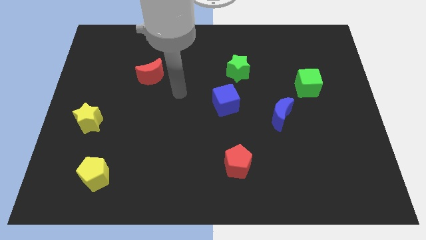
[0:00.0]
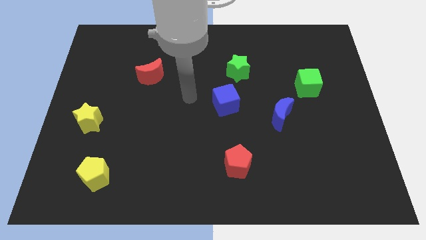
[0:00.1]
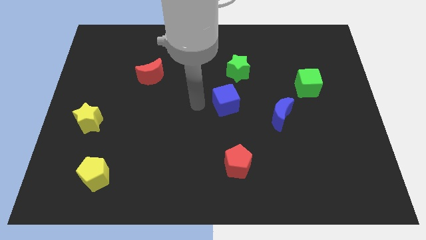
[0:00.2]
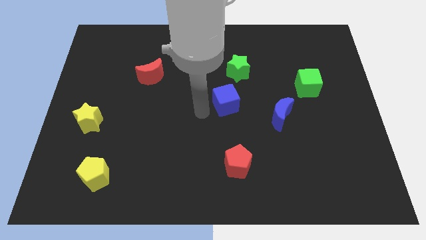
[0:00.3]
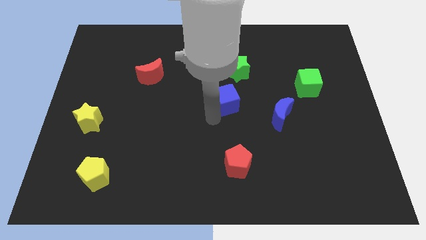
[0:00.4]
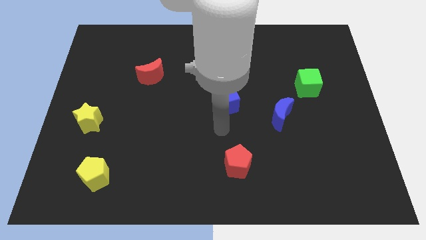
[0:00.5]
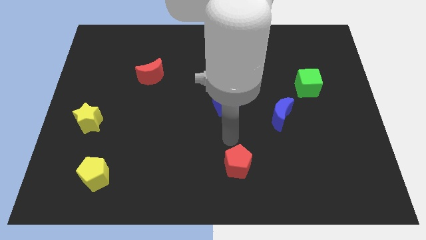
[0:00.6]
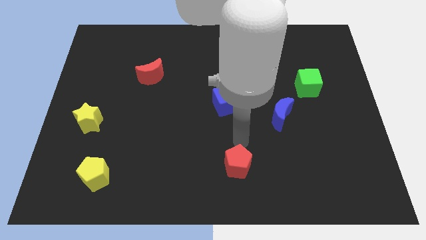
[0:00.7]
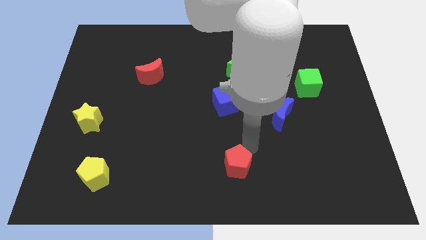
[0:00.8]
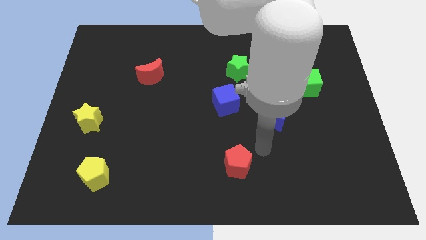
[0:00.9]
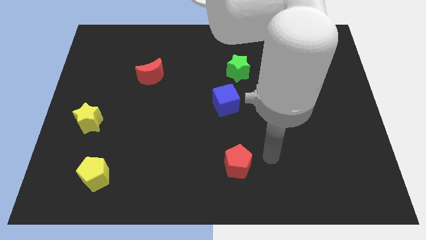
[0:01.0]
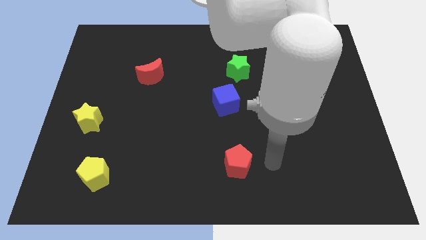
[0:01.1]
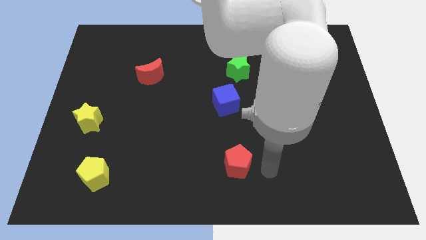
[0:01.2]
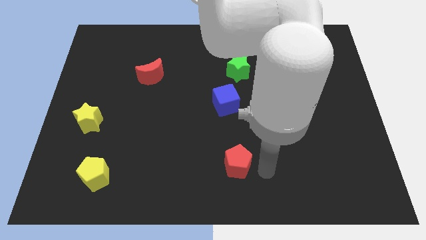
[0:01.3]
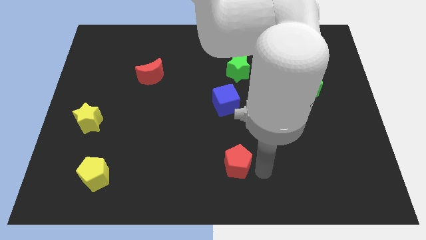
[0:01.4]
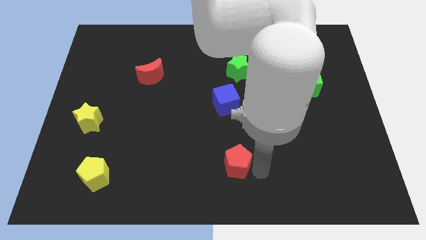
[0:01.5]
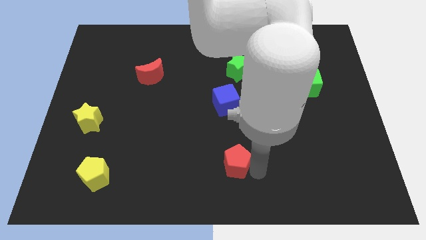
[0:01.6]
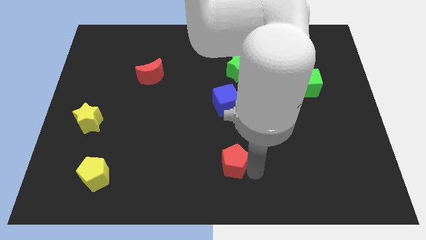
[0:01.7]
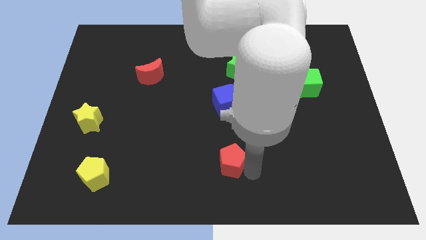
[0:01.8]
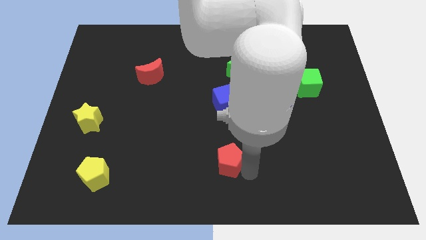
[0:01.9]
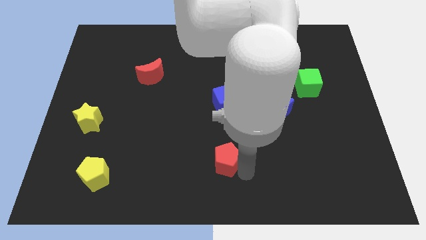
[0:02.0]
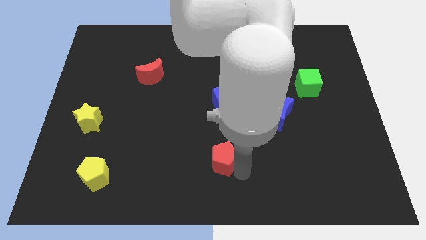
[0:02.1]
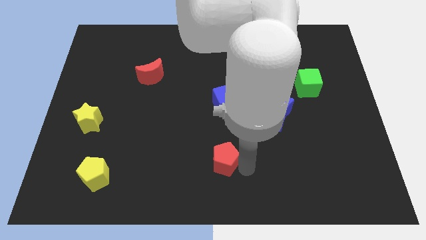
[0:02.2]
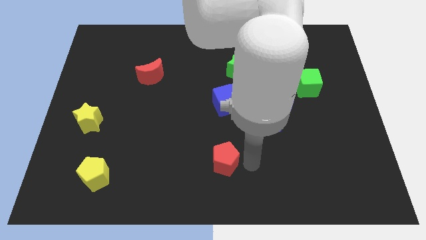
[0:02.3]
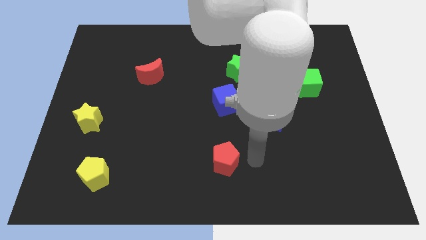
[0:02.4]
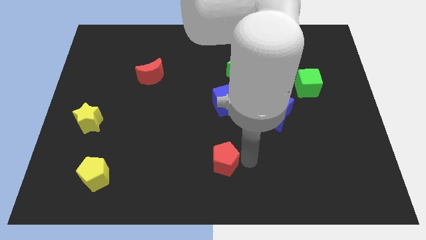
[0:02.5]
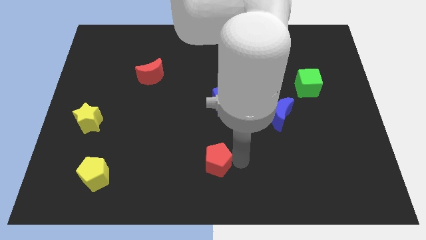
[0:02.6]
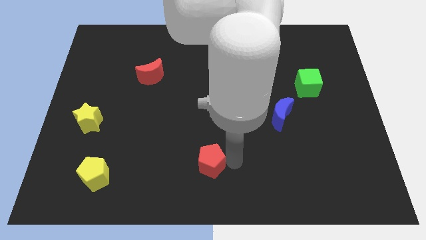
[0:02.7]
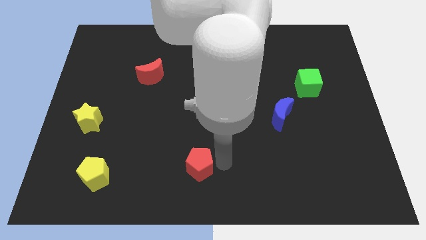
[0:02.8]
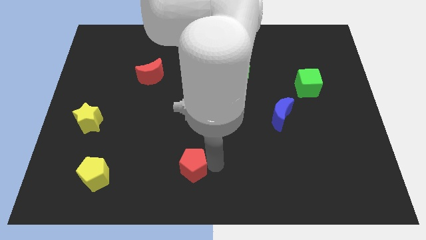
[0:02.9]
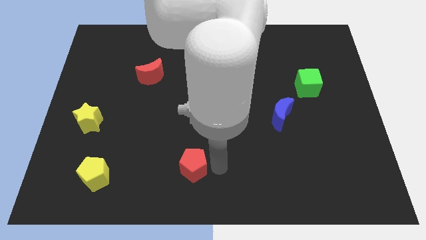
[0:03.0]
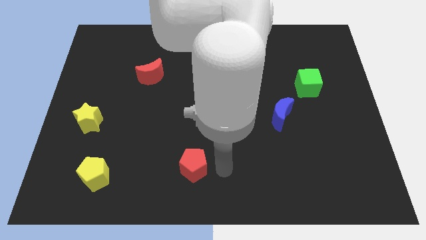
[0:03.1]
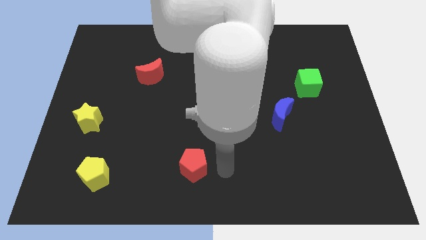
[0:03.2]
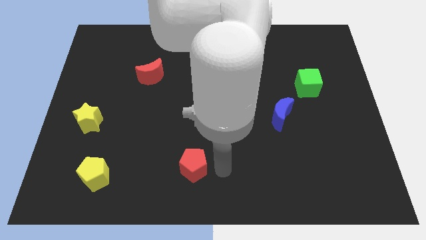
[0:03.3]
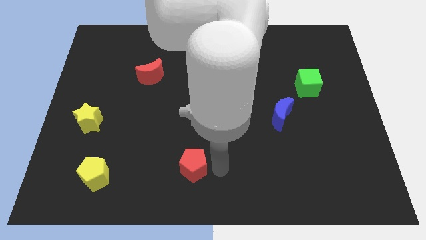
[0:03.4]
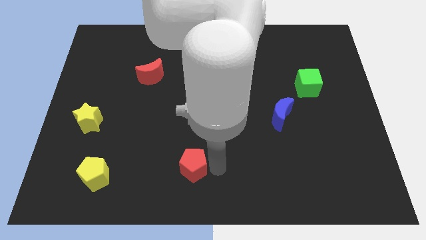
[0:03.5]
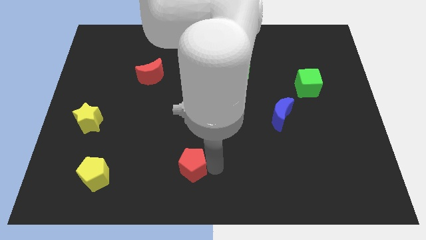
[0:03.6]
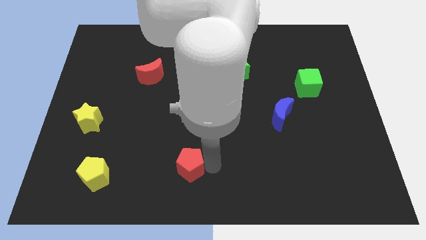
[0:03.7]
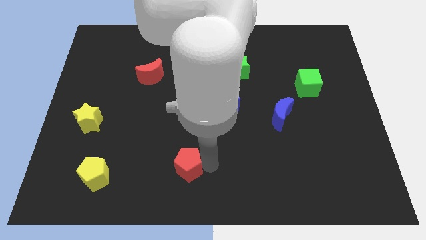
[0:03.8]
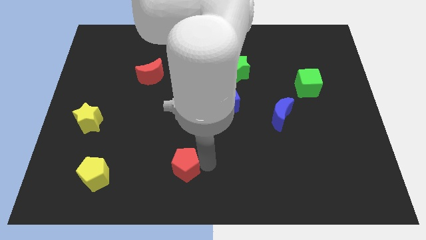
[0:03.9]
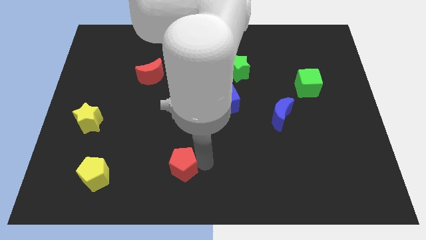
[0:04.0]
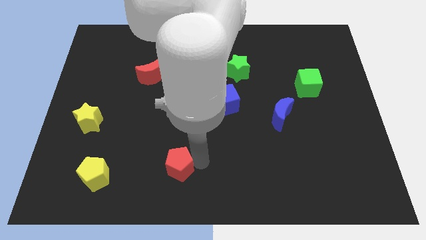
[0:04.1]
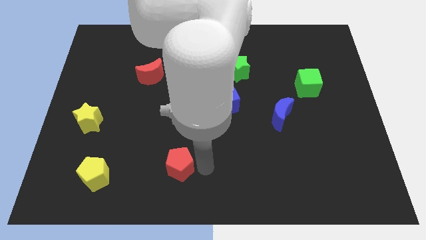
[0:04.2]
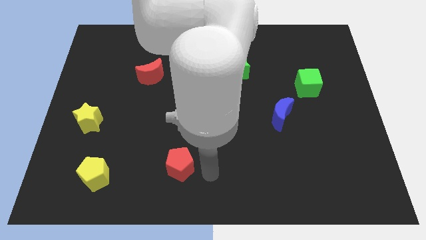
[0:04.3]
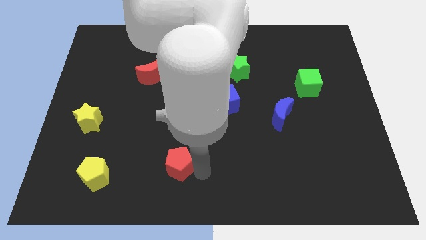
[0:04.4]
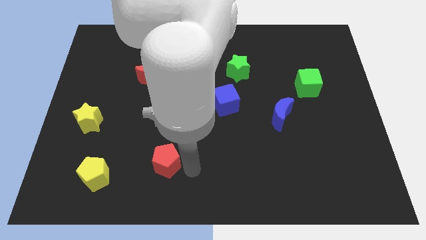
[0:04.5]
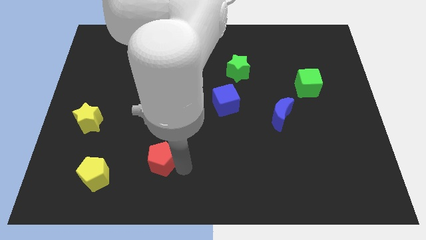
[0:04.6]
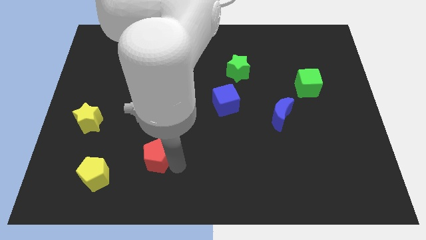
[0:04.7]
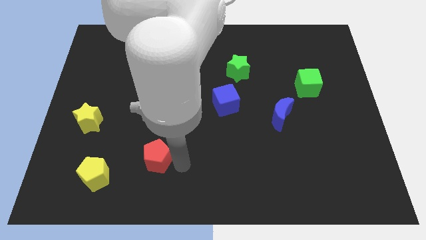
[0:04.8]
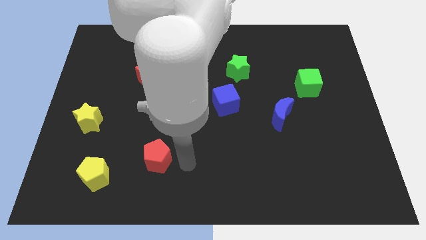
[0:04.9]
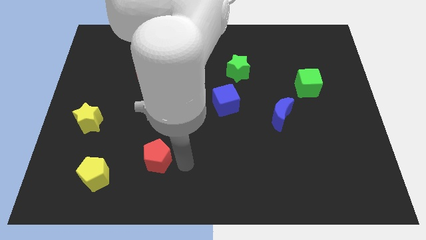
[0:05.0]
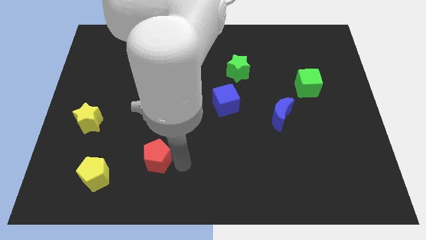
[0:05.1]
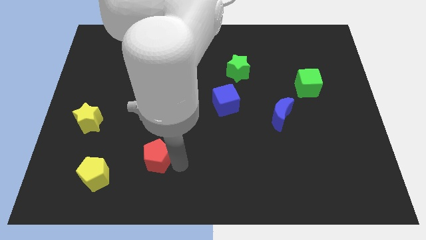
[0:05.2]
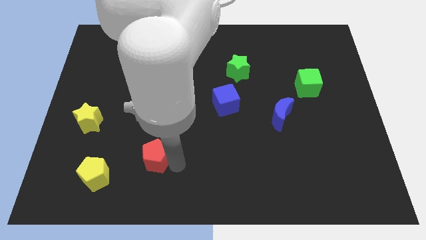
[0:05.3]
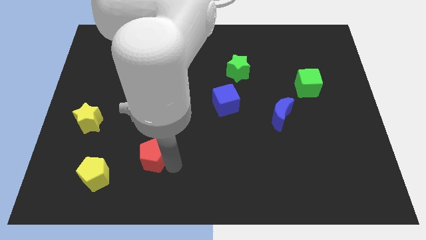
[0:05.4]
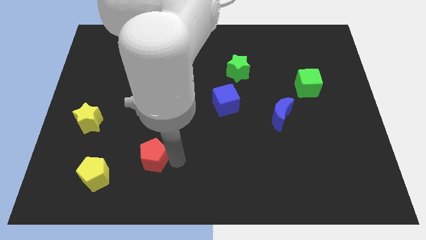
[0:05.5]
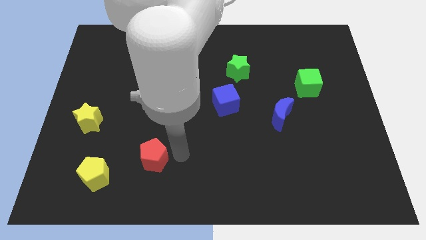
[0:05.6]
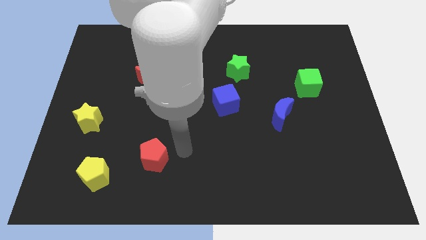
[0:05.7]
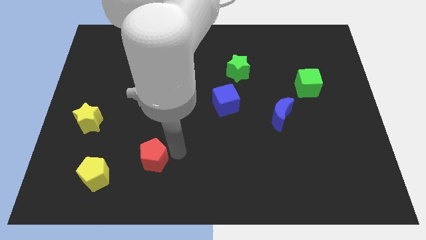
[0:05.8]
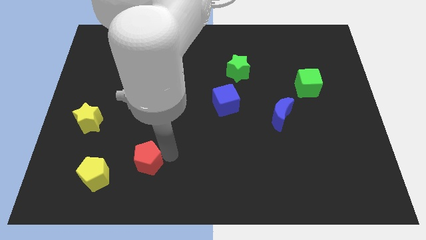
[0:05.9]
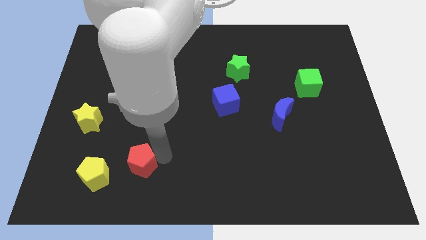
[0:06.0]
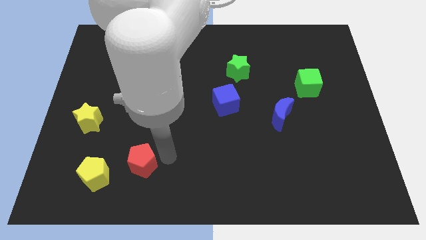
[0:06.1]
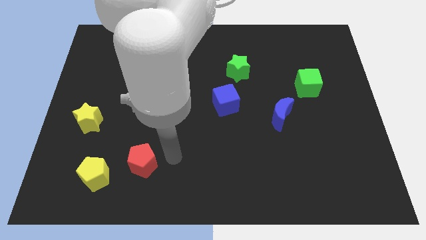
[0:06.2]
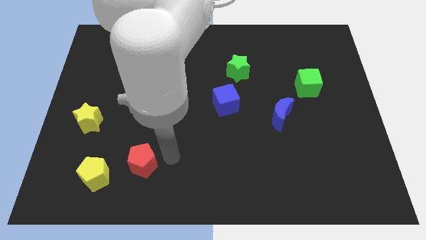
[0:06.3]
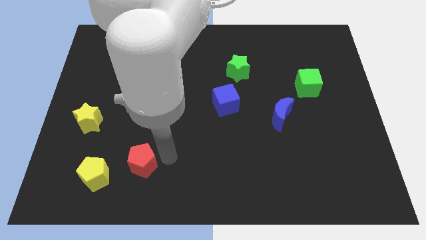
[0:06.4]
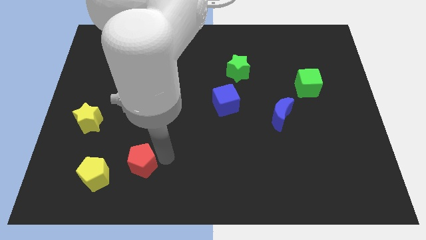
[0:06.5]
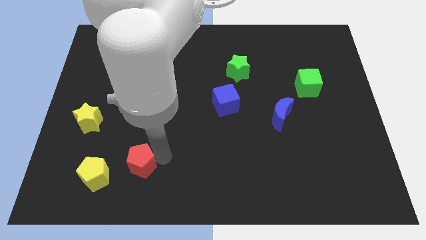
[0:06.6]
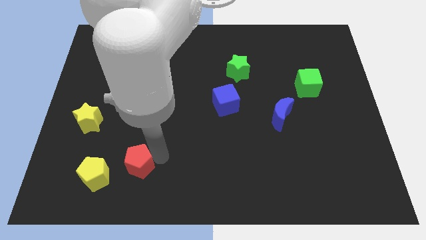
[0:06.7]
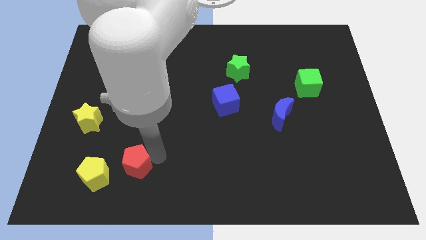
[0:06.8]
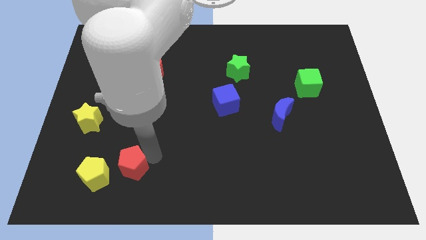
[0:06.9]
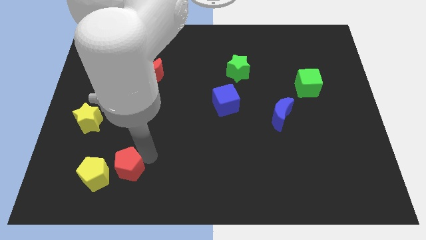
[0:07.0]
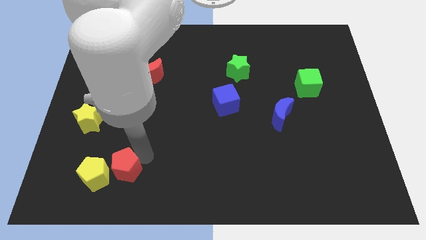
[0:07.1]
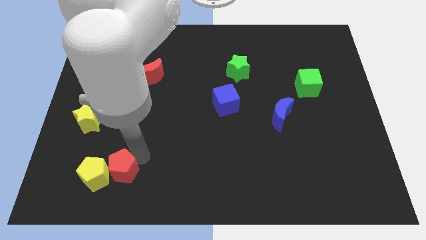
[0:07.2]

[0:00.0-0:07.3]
move the red pentagon next to the yellow pentagon
